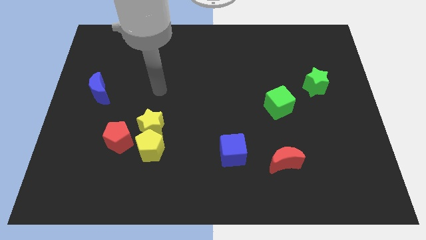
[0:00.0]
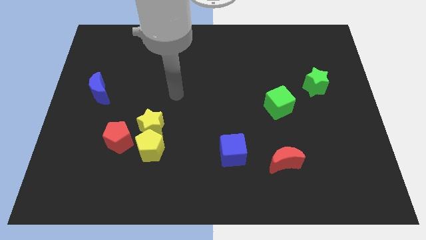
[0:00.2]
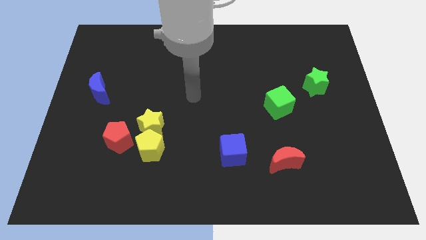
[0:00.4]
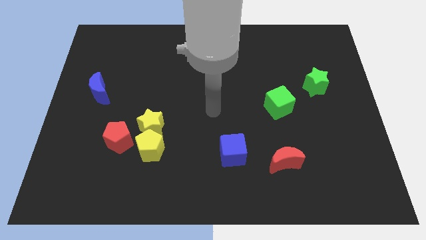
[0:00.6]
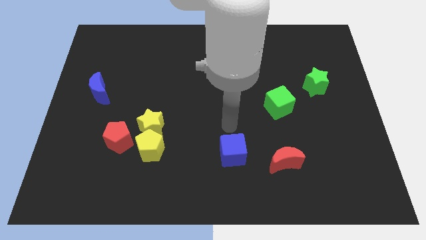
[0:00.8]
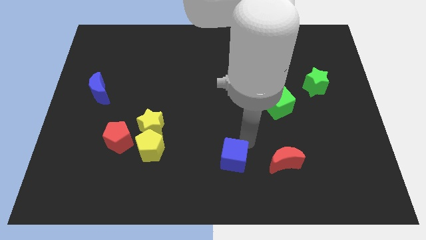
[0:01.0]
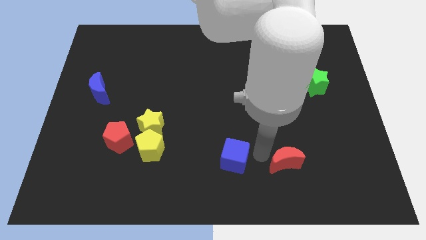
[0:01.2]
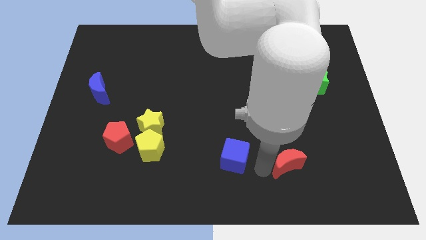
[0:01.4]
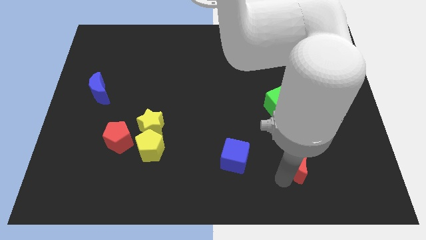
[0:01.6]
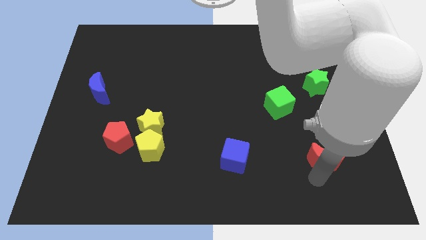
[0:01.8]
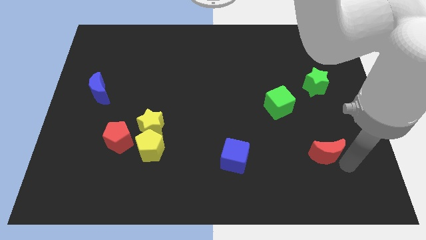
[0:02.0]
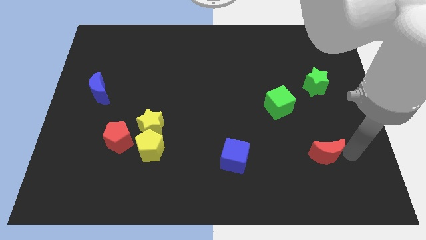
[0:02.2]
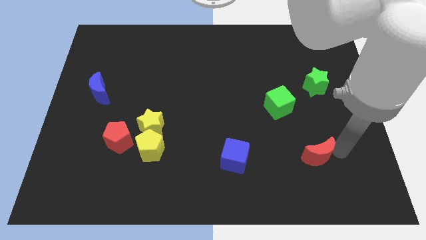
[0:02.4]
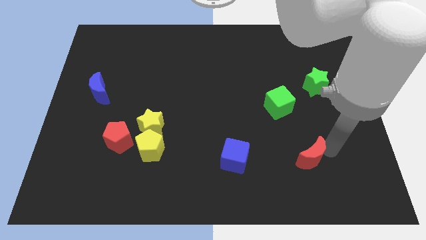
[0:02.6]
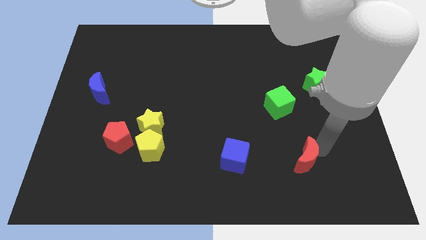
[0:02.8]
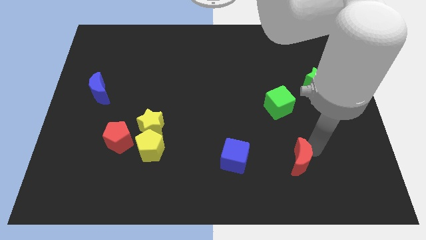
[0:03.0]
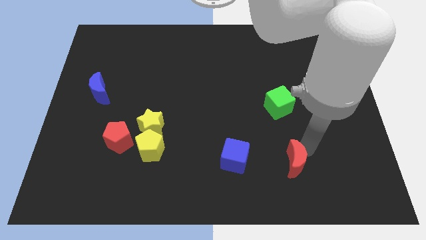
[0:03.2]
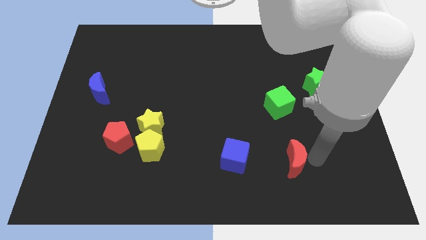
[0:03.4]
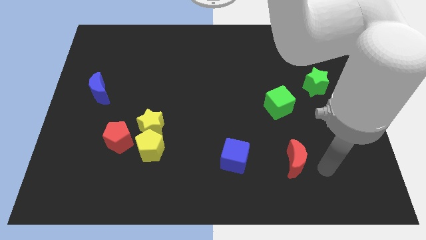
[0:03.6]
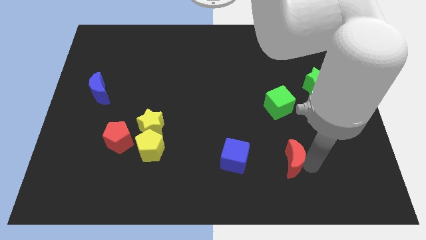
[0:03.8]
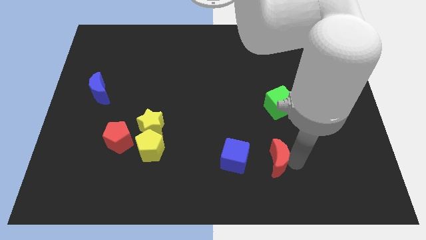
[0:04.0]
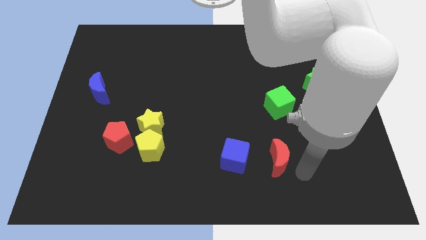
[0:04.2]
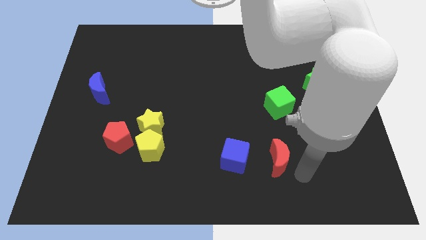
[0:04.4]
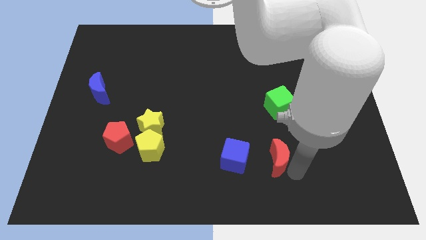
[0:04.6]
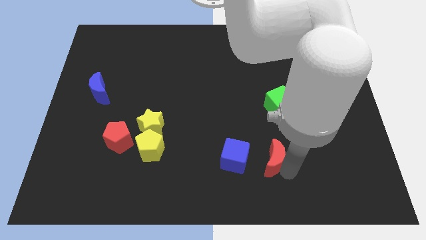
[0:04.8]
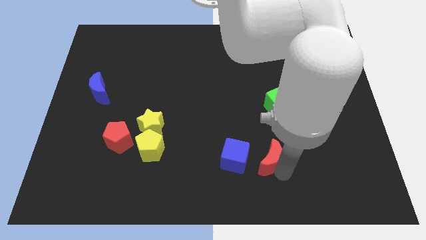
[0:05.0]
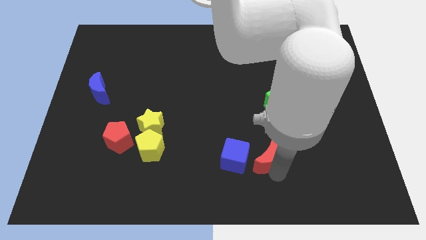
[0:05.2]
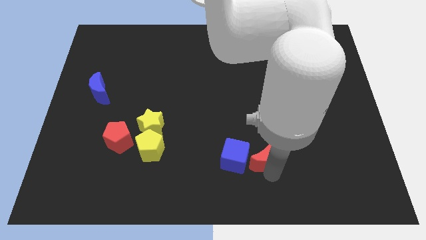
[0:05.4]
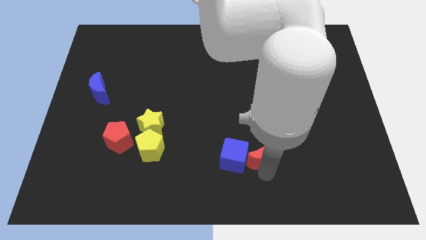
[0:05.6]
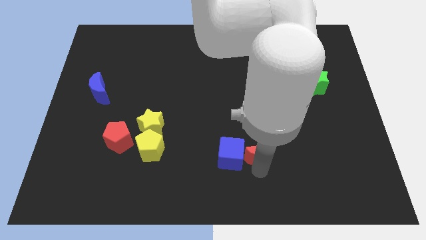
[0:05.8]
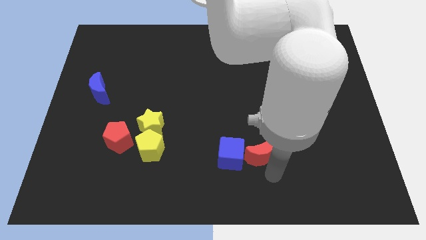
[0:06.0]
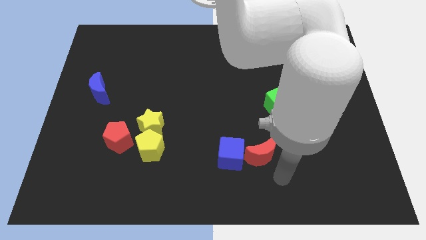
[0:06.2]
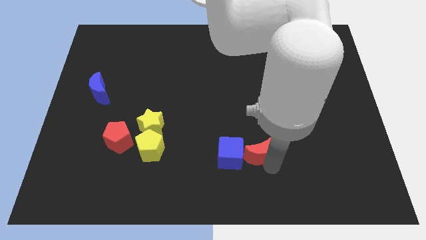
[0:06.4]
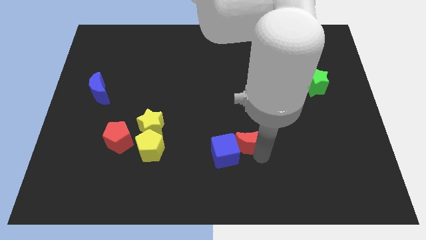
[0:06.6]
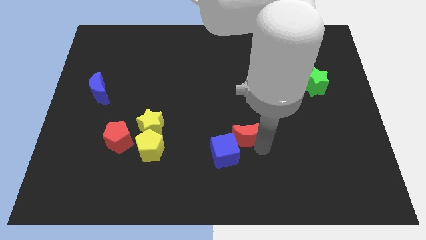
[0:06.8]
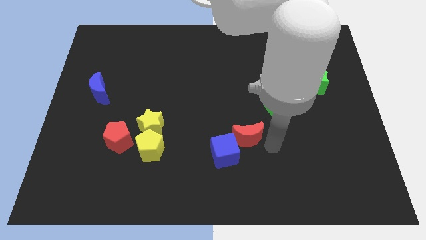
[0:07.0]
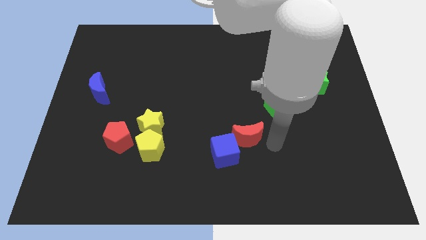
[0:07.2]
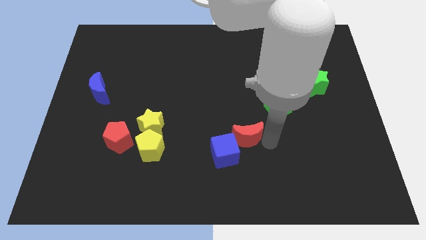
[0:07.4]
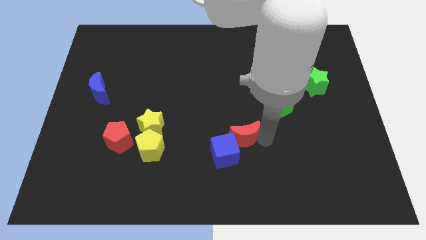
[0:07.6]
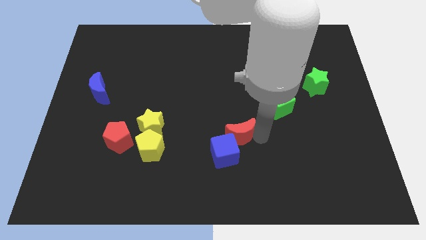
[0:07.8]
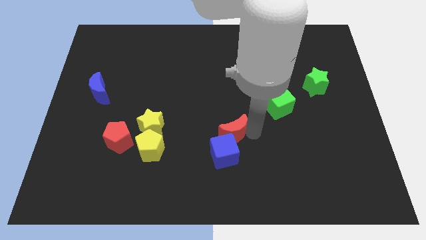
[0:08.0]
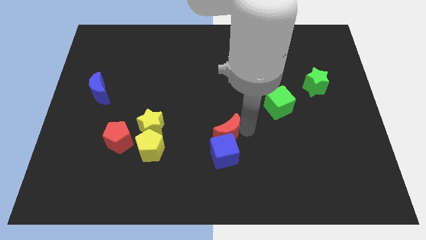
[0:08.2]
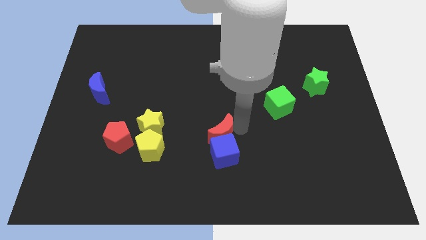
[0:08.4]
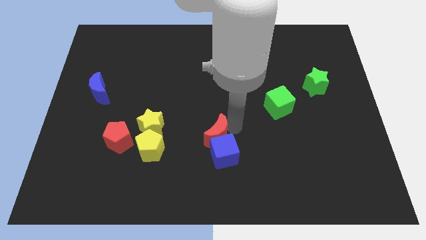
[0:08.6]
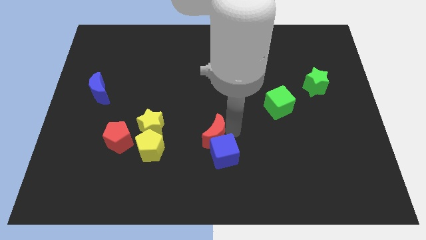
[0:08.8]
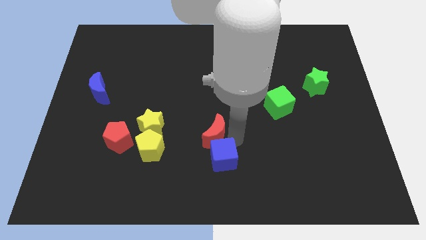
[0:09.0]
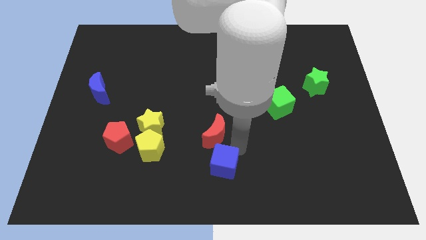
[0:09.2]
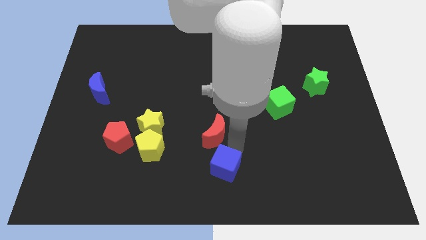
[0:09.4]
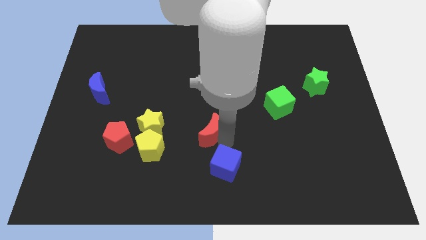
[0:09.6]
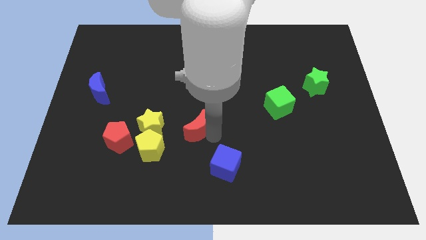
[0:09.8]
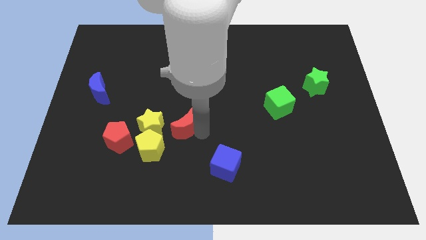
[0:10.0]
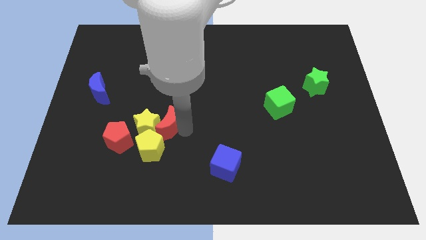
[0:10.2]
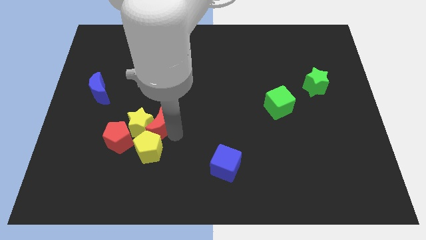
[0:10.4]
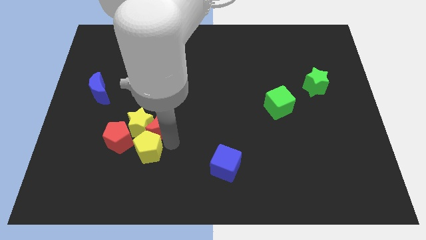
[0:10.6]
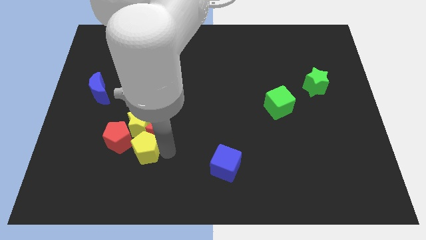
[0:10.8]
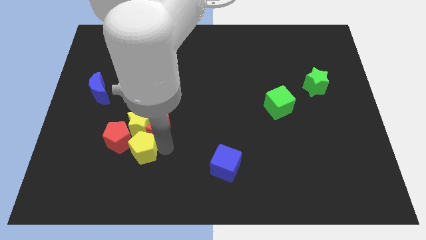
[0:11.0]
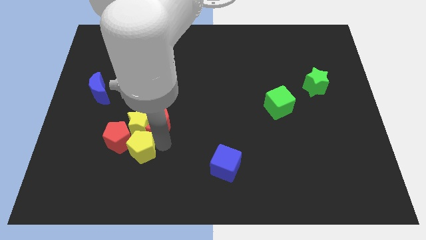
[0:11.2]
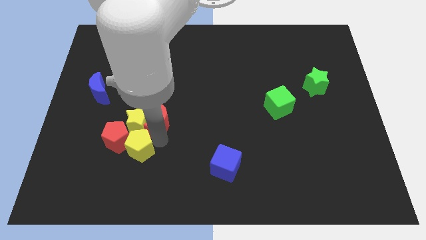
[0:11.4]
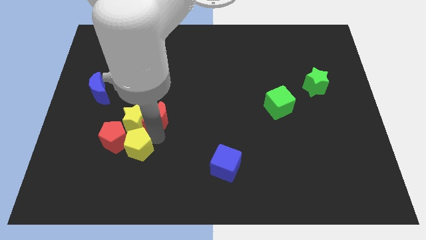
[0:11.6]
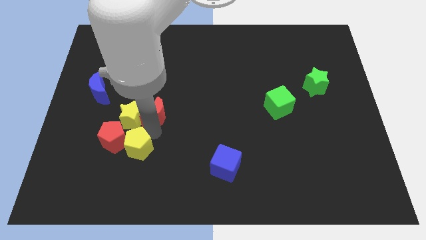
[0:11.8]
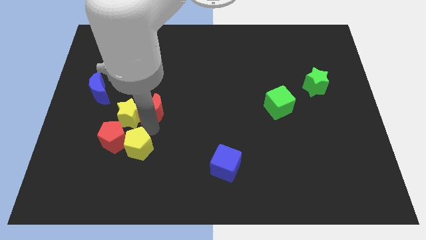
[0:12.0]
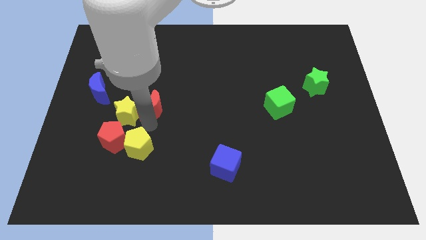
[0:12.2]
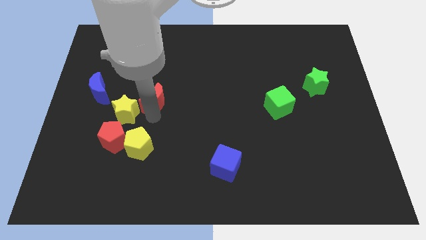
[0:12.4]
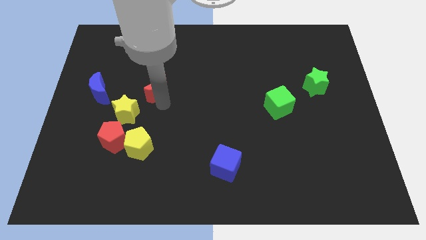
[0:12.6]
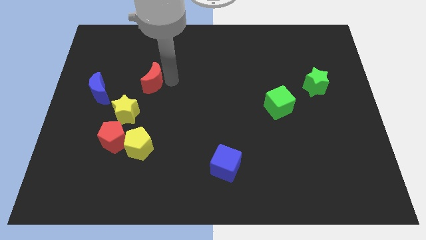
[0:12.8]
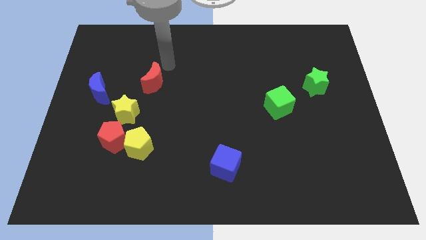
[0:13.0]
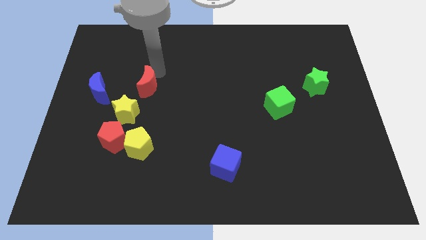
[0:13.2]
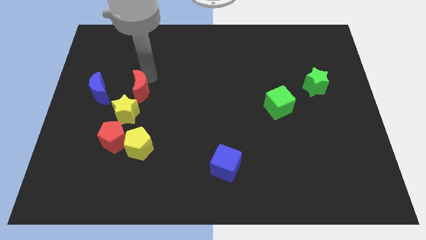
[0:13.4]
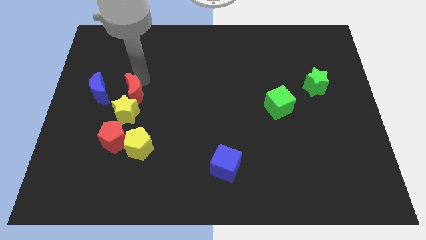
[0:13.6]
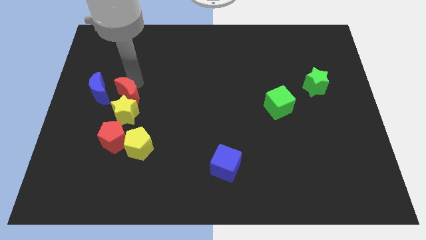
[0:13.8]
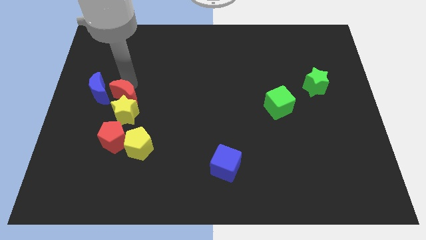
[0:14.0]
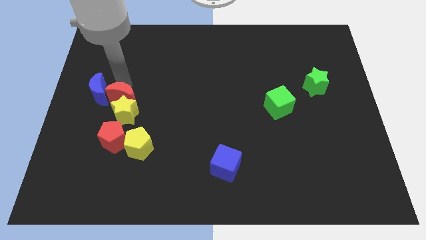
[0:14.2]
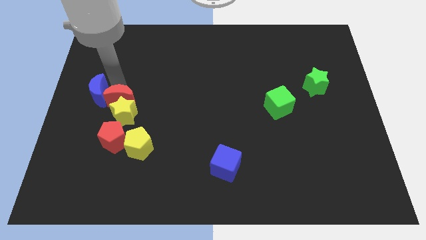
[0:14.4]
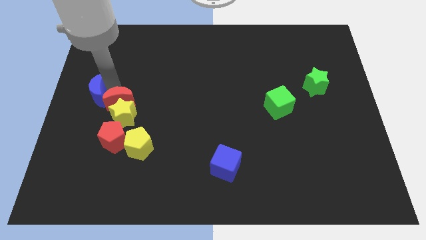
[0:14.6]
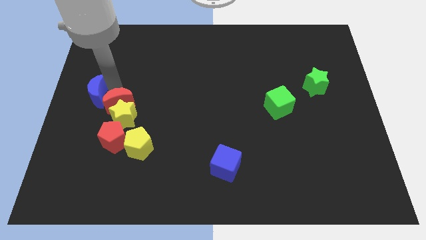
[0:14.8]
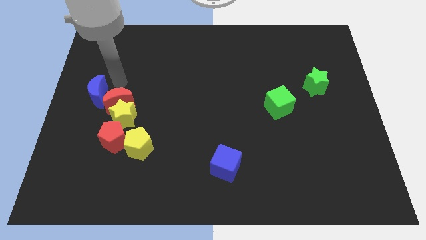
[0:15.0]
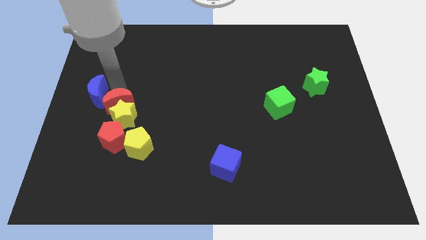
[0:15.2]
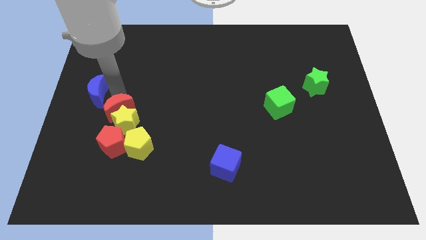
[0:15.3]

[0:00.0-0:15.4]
push the red moon to the top left of the yellow pentagon
